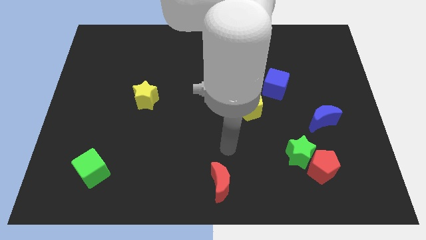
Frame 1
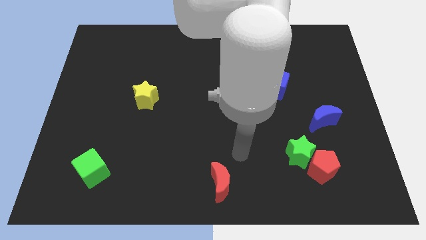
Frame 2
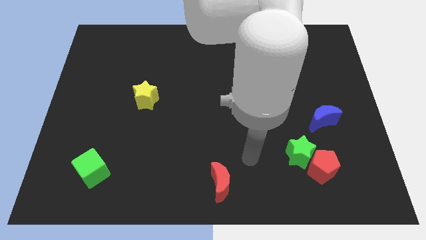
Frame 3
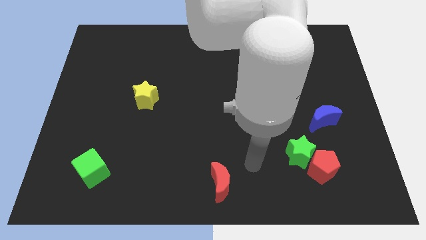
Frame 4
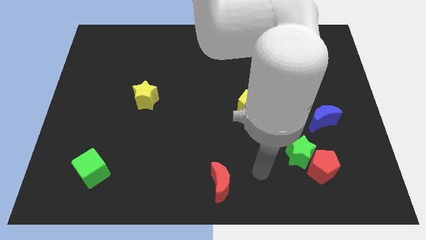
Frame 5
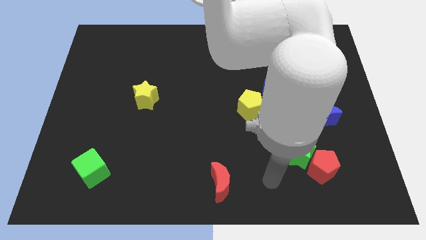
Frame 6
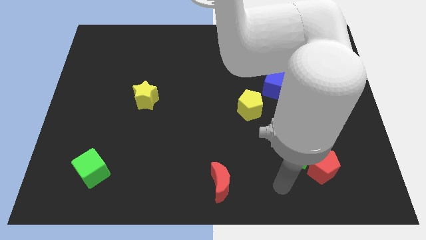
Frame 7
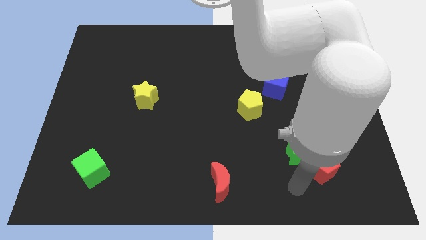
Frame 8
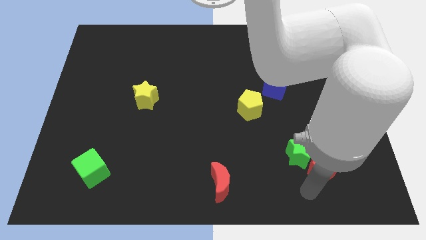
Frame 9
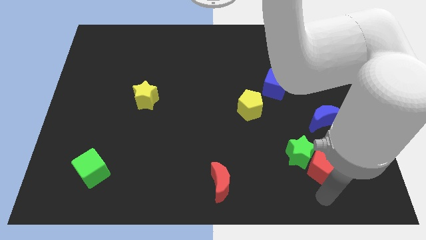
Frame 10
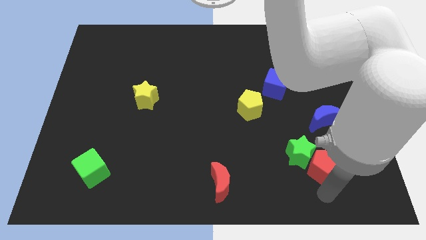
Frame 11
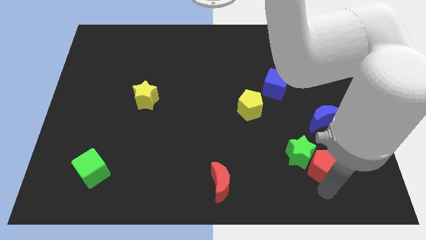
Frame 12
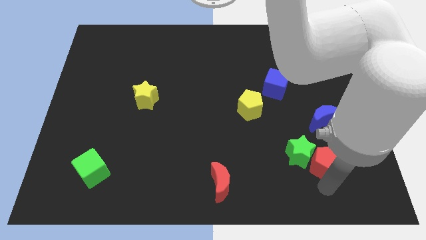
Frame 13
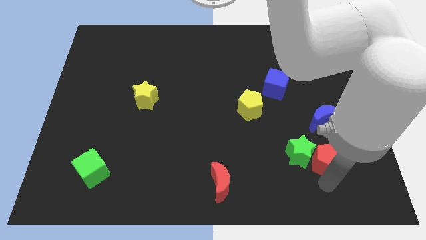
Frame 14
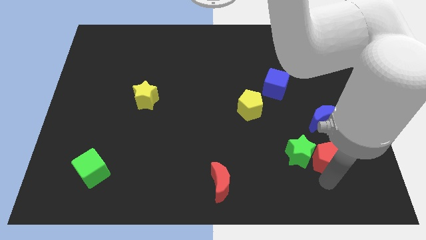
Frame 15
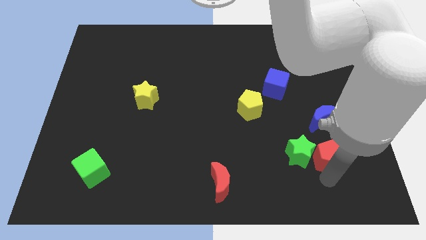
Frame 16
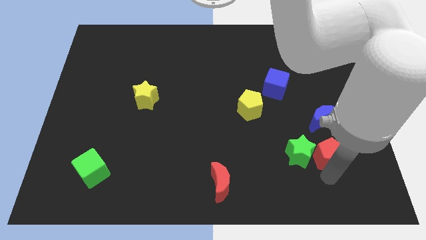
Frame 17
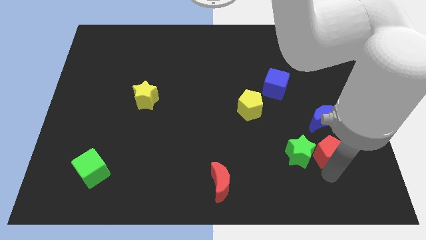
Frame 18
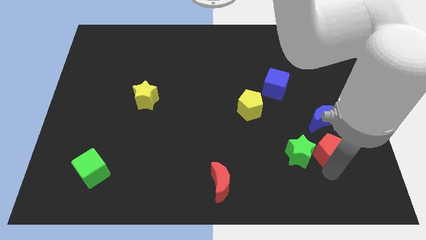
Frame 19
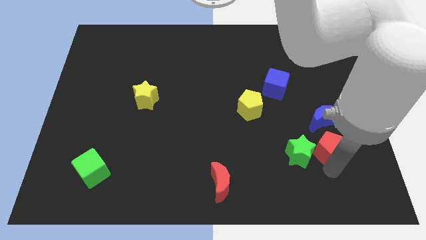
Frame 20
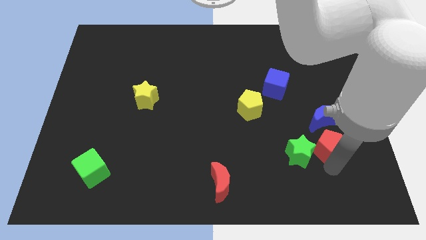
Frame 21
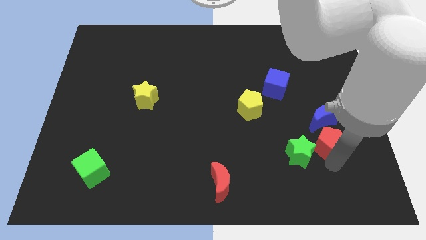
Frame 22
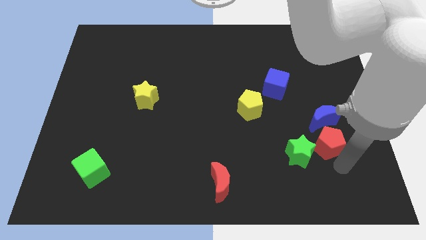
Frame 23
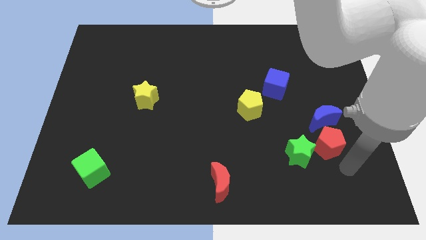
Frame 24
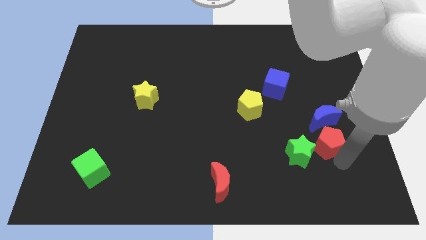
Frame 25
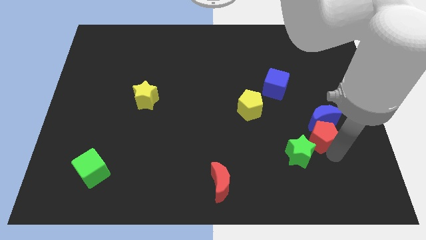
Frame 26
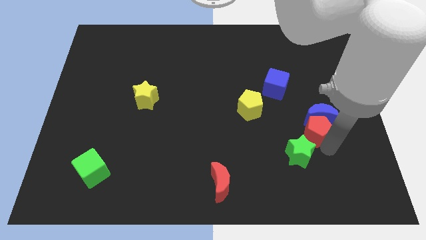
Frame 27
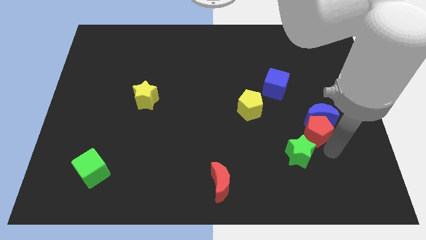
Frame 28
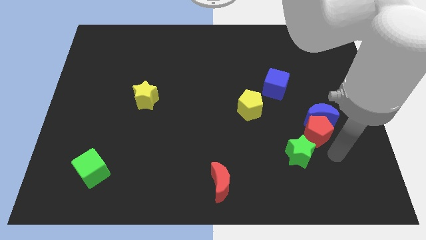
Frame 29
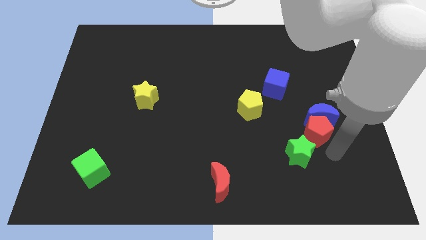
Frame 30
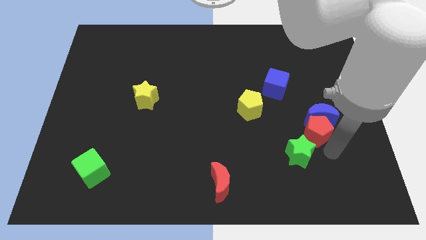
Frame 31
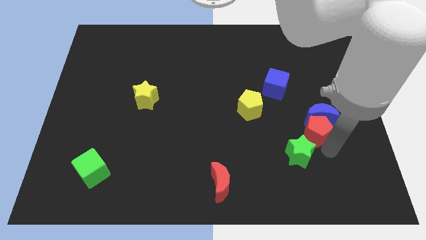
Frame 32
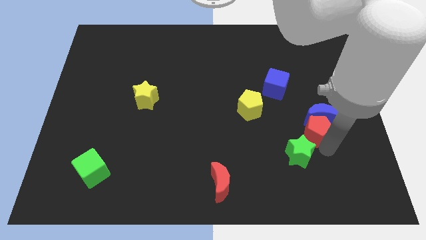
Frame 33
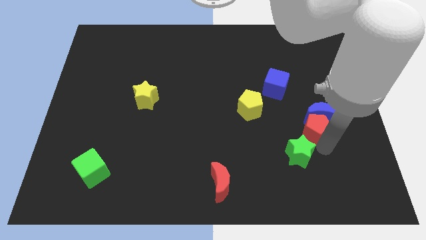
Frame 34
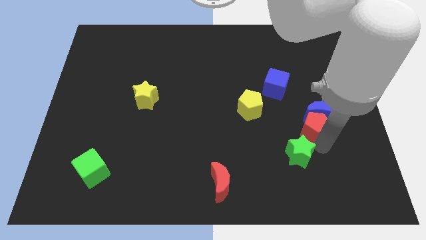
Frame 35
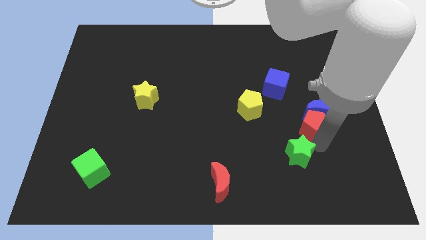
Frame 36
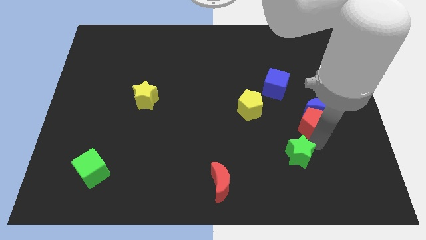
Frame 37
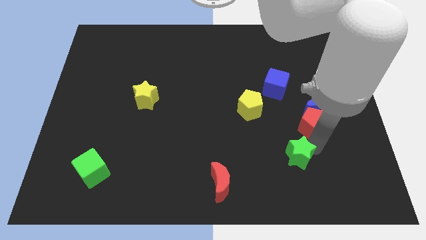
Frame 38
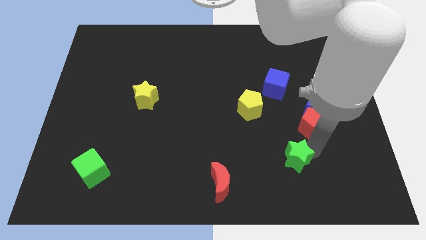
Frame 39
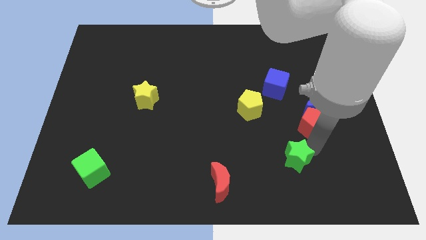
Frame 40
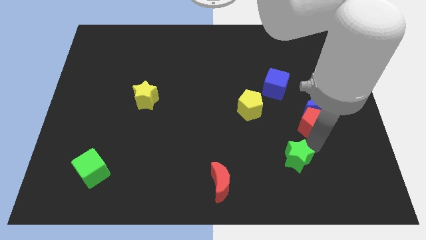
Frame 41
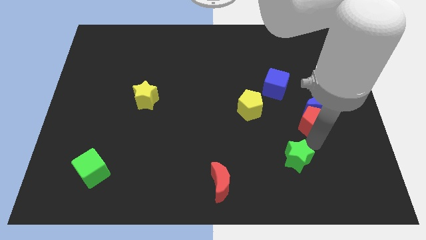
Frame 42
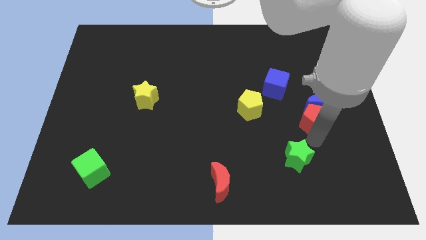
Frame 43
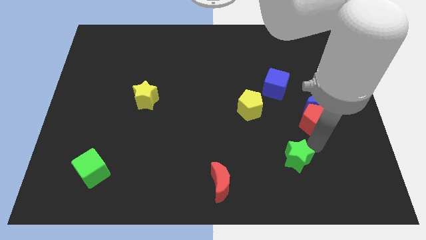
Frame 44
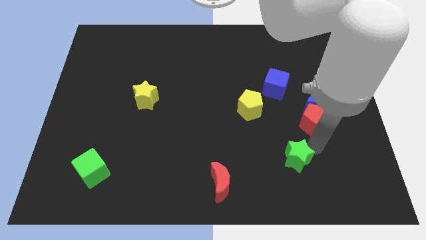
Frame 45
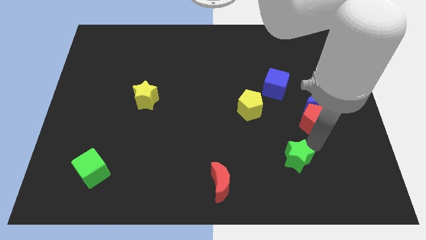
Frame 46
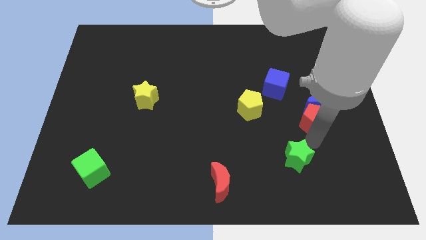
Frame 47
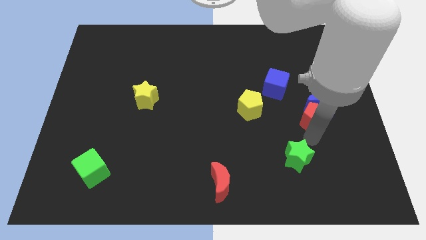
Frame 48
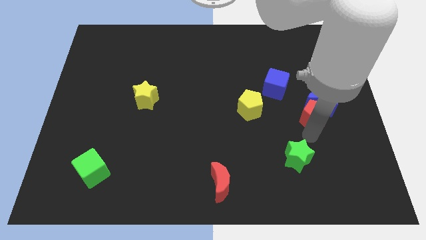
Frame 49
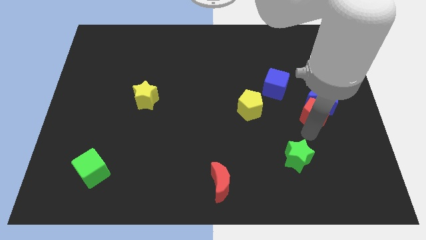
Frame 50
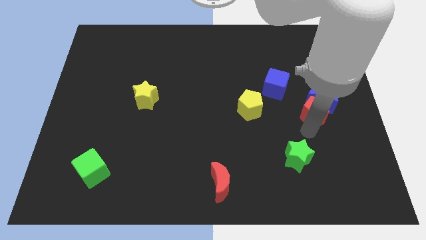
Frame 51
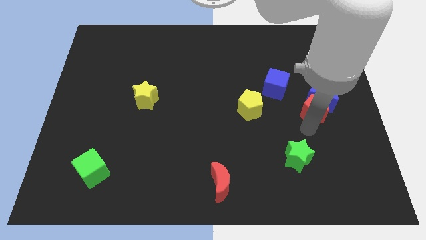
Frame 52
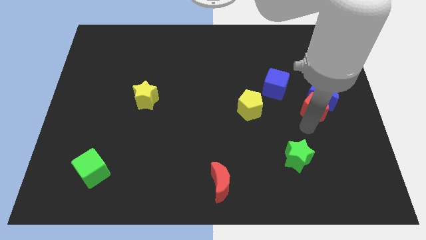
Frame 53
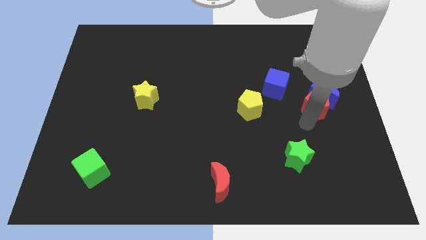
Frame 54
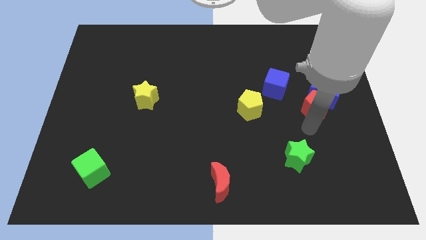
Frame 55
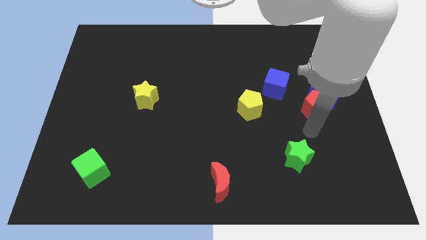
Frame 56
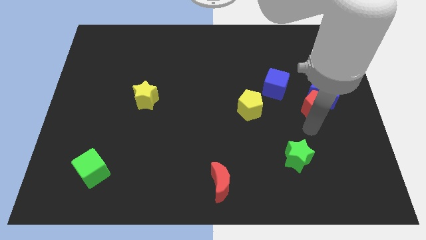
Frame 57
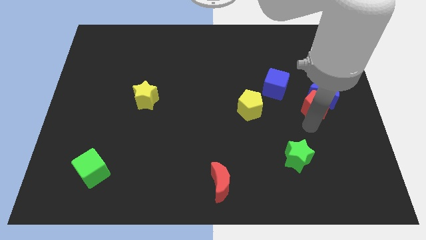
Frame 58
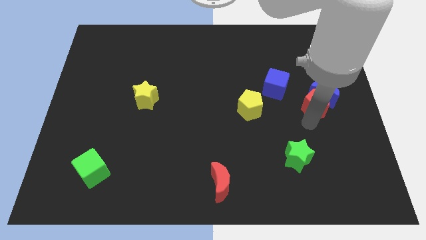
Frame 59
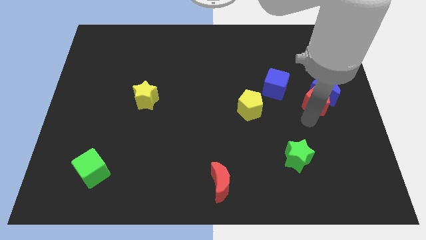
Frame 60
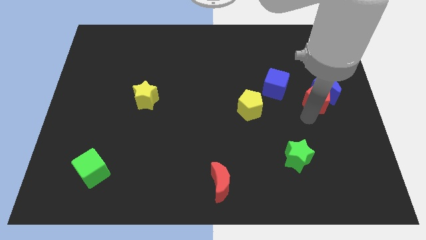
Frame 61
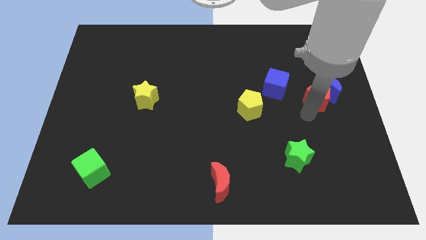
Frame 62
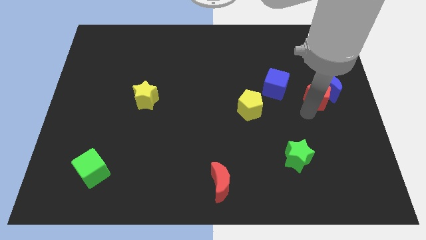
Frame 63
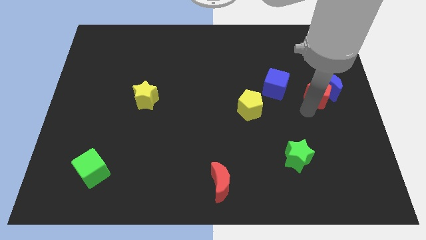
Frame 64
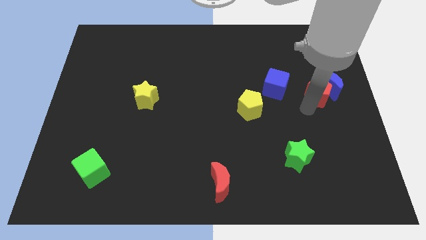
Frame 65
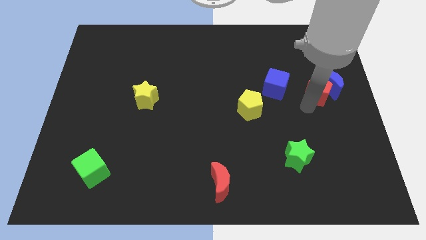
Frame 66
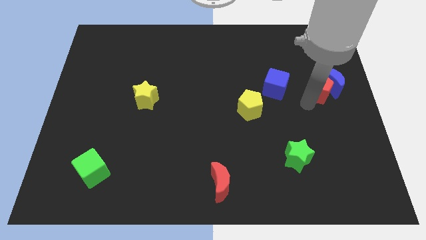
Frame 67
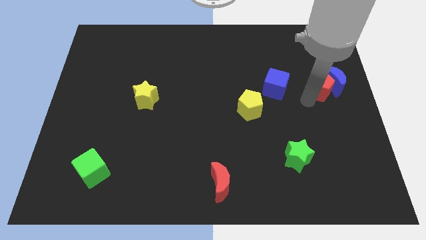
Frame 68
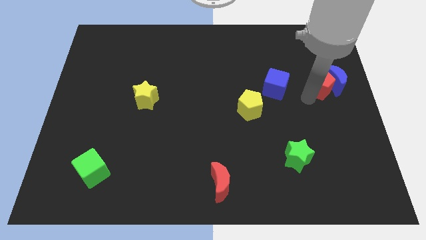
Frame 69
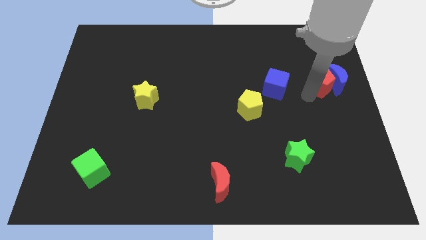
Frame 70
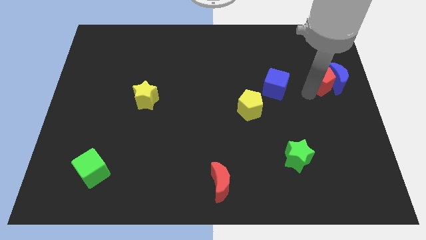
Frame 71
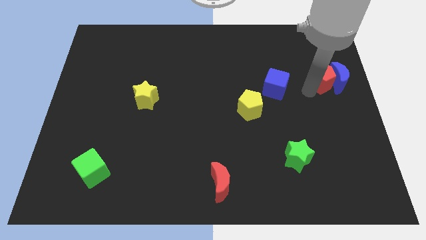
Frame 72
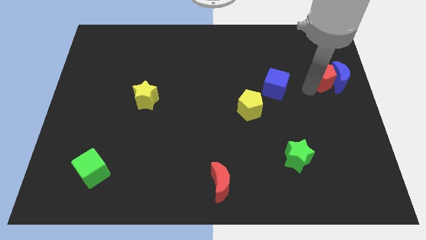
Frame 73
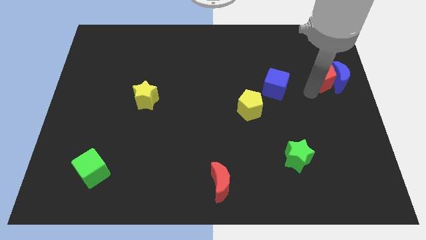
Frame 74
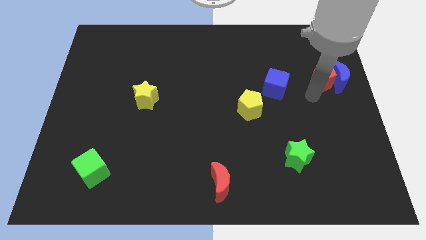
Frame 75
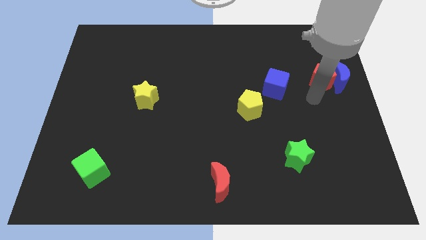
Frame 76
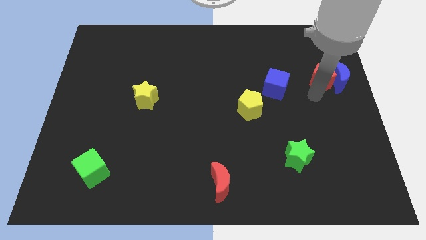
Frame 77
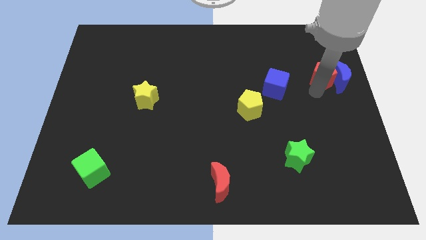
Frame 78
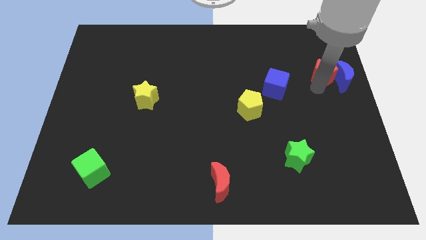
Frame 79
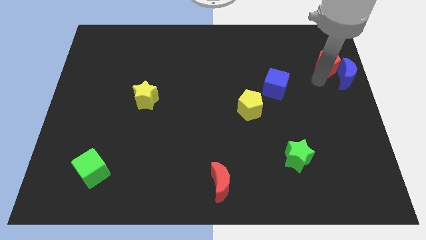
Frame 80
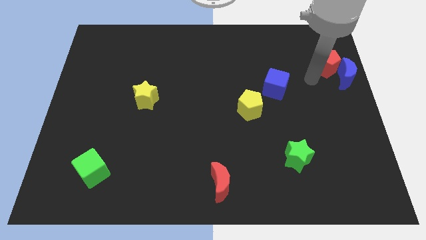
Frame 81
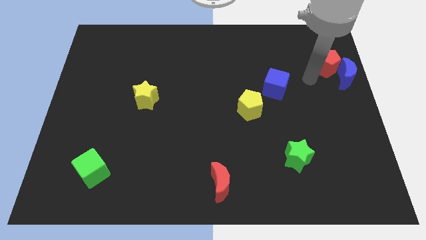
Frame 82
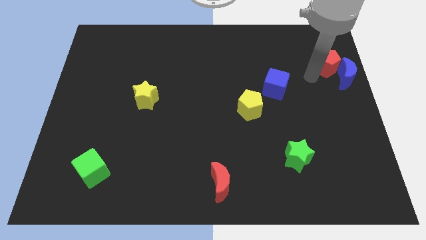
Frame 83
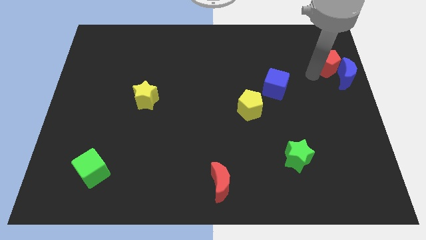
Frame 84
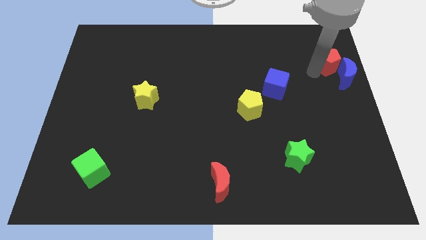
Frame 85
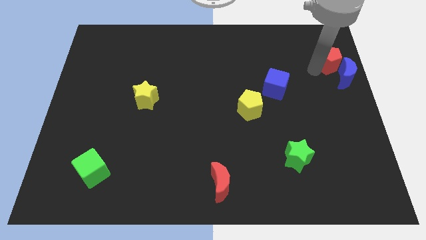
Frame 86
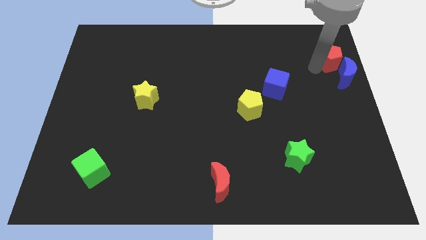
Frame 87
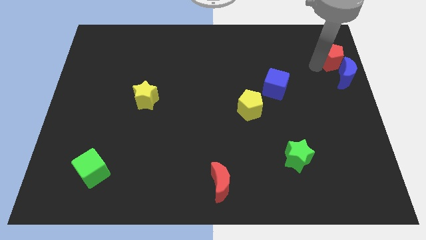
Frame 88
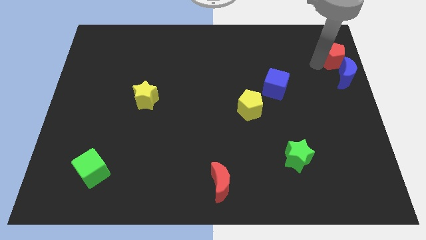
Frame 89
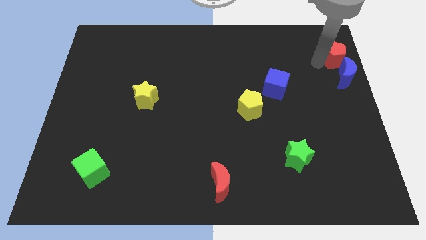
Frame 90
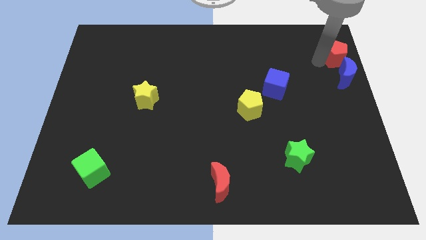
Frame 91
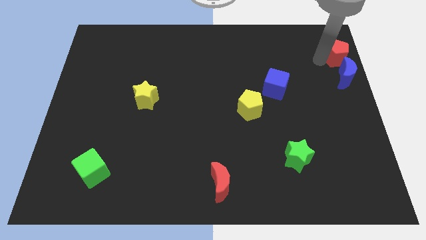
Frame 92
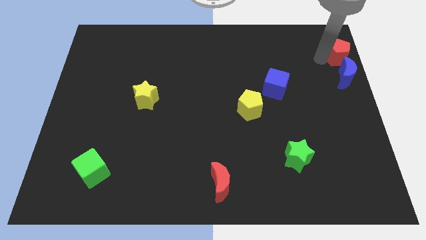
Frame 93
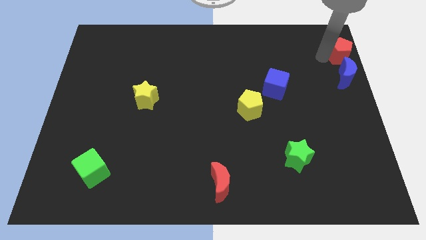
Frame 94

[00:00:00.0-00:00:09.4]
slide the red pentagon to the upper right corner
